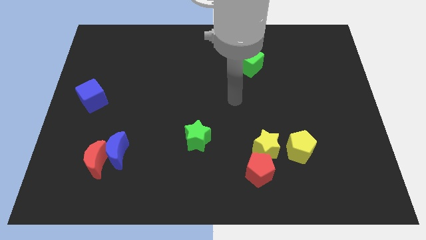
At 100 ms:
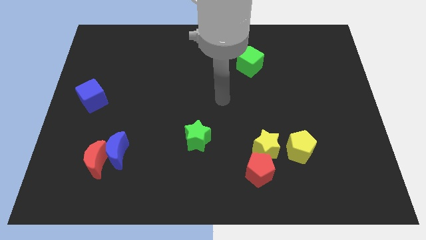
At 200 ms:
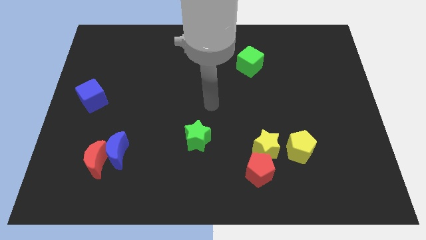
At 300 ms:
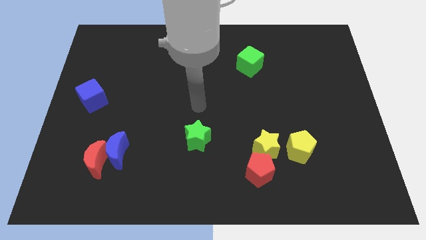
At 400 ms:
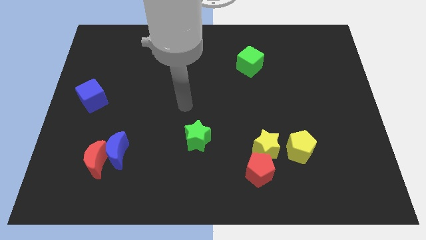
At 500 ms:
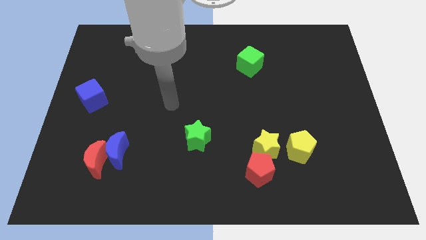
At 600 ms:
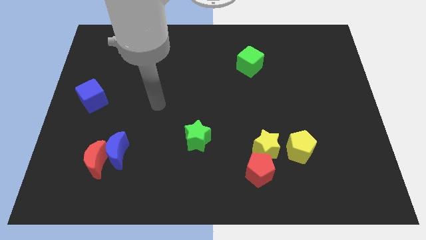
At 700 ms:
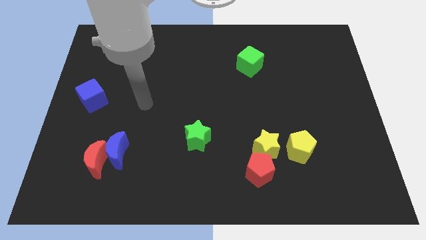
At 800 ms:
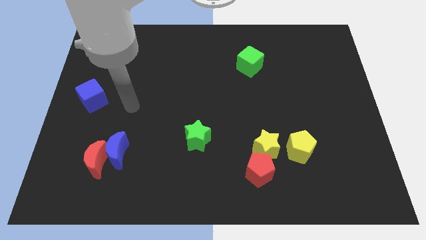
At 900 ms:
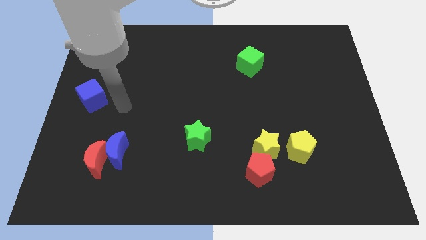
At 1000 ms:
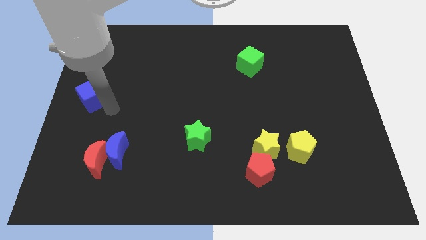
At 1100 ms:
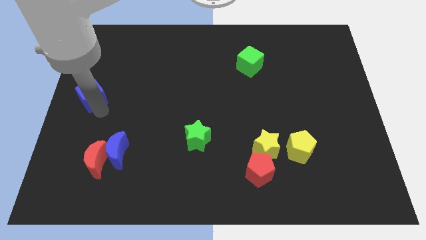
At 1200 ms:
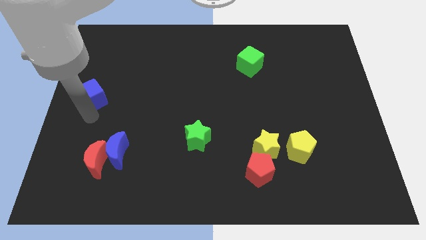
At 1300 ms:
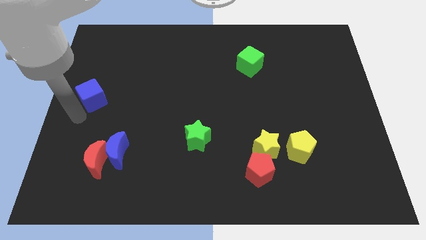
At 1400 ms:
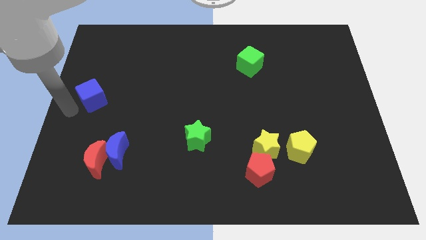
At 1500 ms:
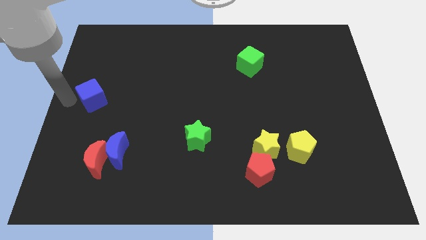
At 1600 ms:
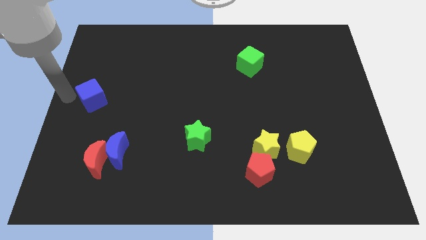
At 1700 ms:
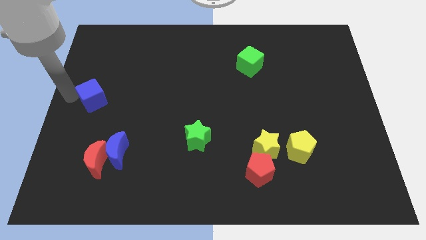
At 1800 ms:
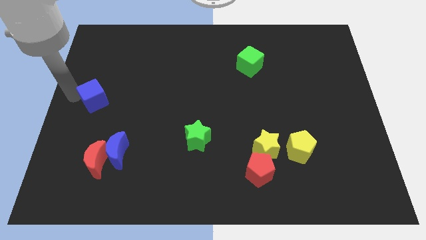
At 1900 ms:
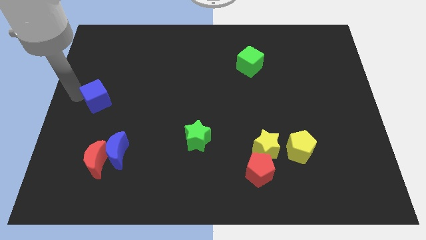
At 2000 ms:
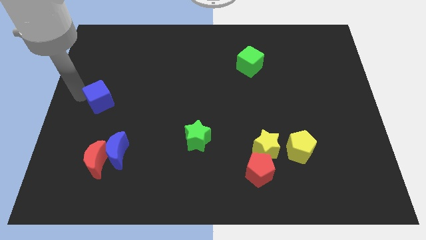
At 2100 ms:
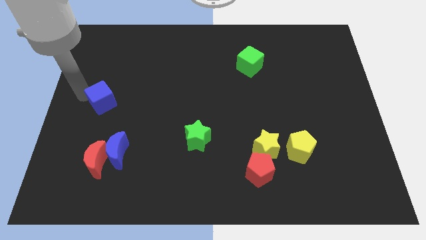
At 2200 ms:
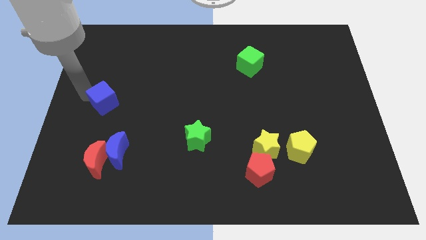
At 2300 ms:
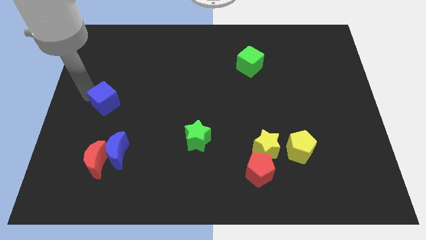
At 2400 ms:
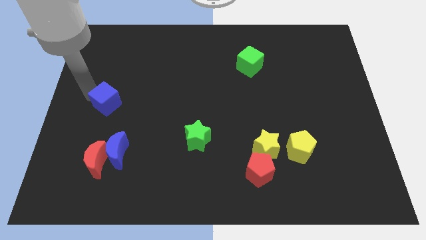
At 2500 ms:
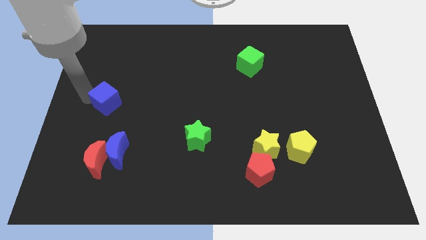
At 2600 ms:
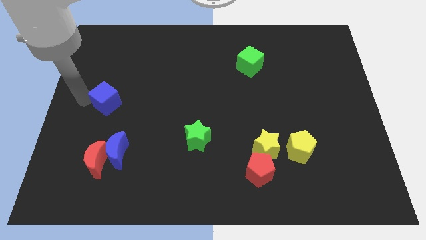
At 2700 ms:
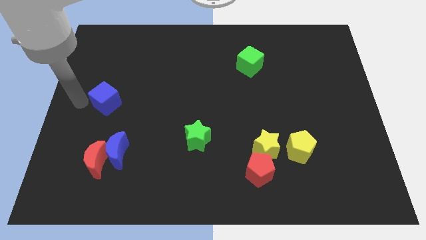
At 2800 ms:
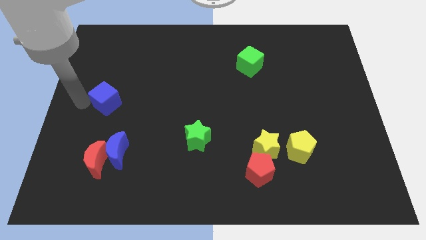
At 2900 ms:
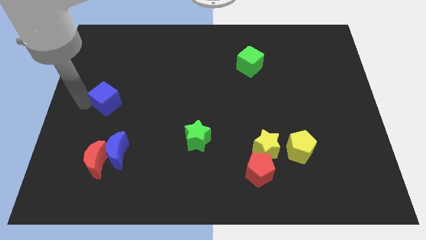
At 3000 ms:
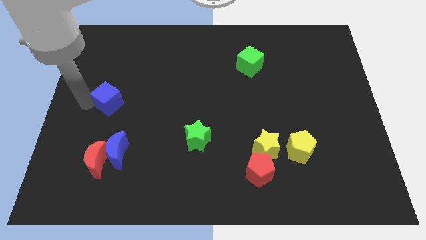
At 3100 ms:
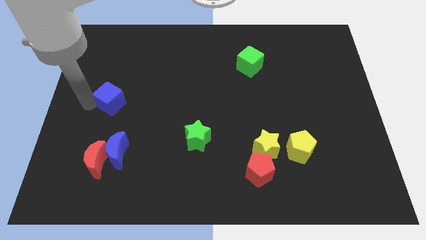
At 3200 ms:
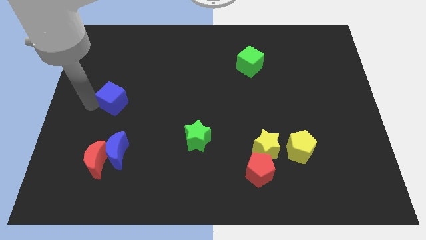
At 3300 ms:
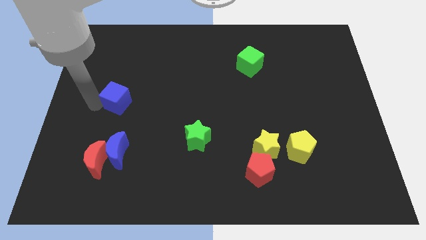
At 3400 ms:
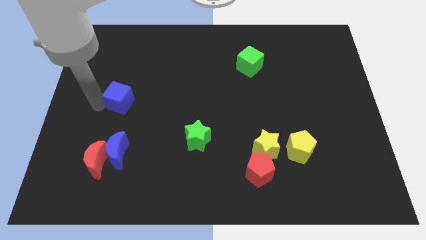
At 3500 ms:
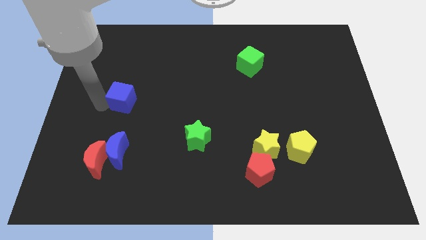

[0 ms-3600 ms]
slide the blue cube slightly to the right

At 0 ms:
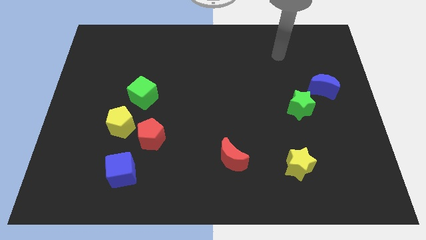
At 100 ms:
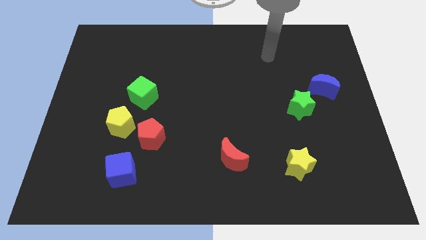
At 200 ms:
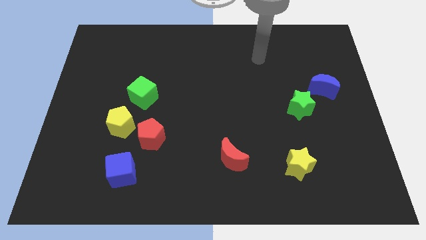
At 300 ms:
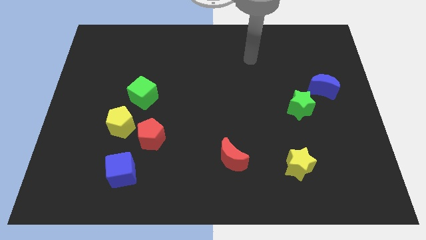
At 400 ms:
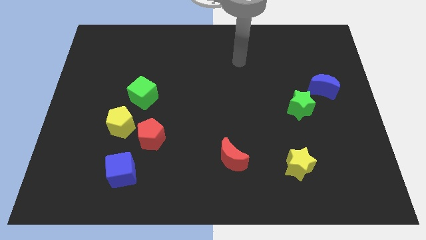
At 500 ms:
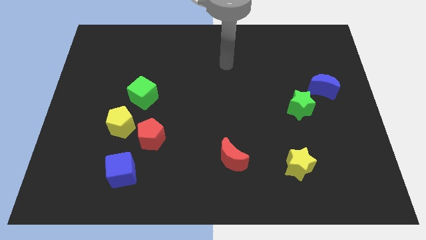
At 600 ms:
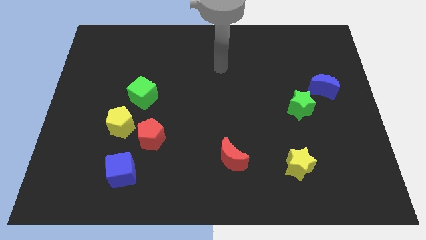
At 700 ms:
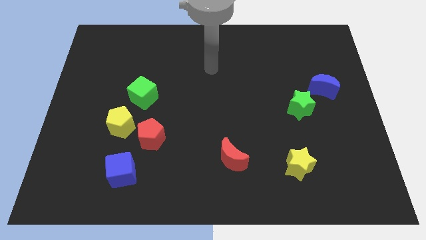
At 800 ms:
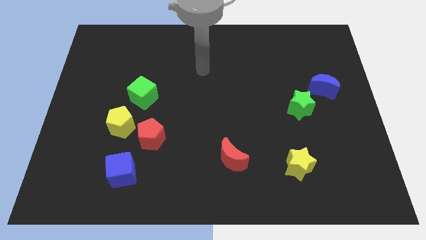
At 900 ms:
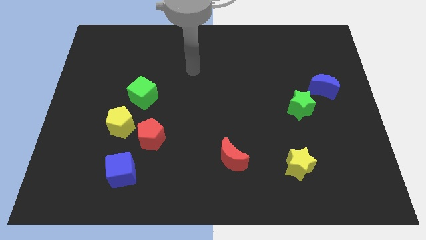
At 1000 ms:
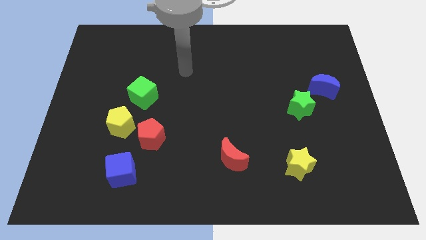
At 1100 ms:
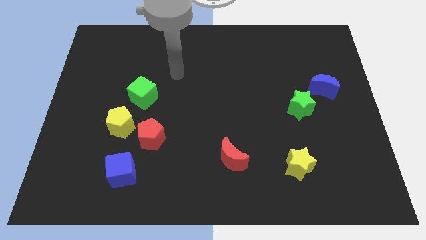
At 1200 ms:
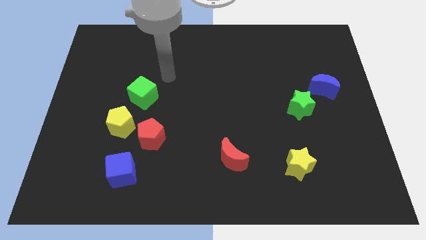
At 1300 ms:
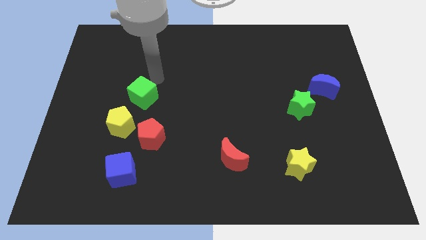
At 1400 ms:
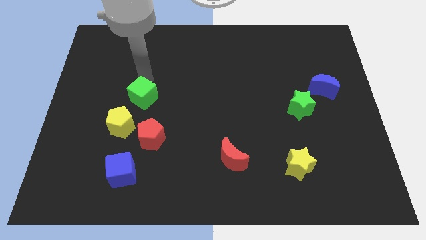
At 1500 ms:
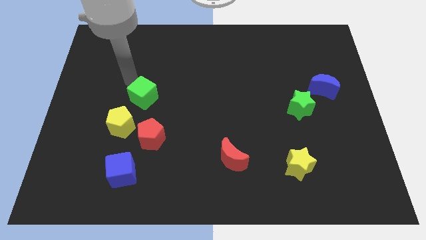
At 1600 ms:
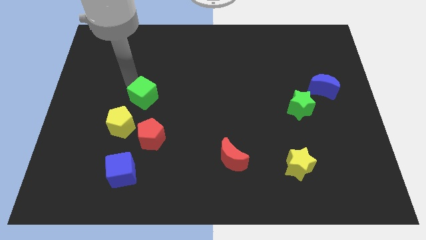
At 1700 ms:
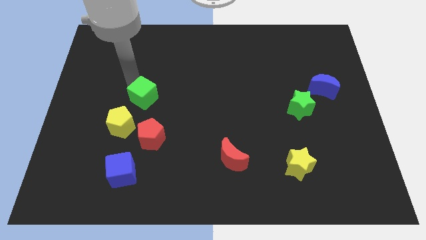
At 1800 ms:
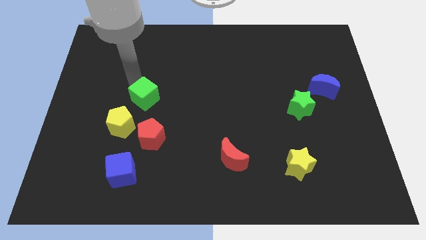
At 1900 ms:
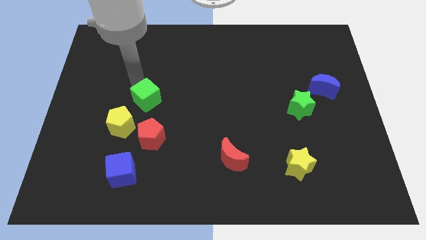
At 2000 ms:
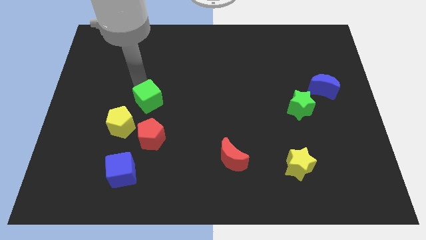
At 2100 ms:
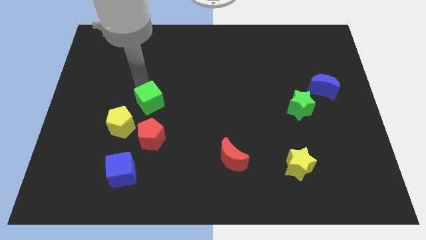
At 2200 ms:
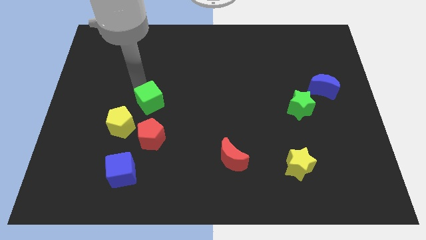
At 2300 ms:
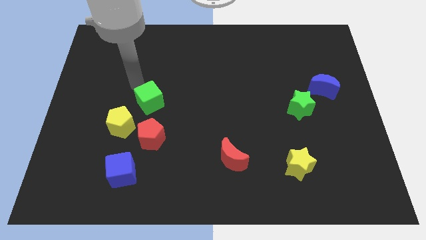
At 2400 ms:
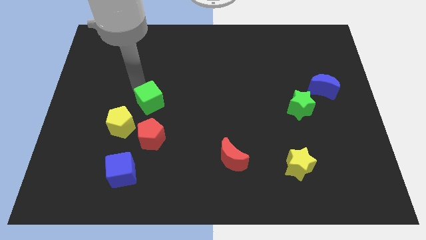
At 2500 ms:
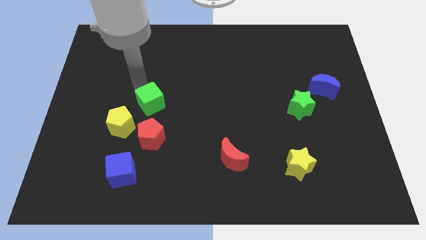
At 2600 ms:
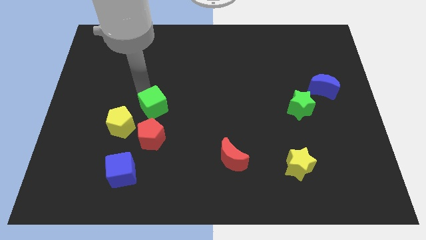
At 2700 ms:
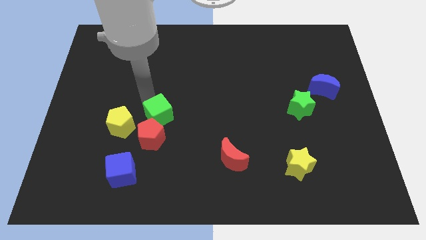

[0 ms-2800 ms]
move the green cube downwards and to the right diagonally a little bit

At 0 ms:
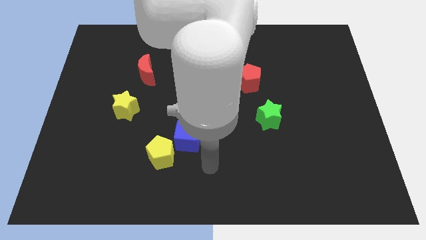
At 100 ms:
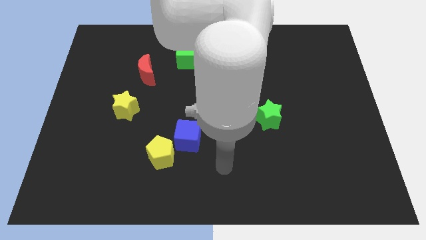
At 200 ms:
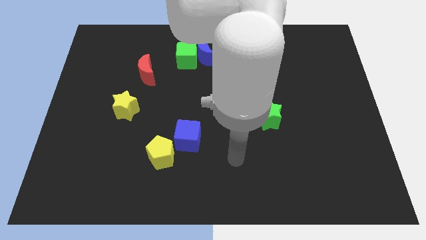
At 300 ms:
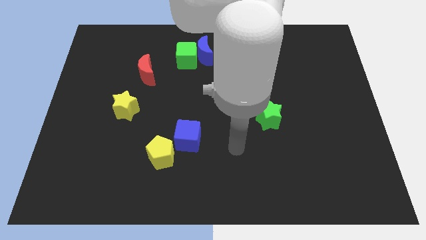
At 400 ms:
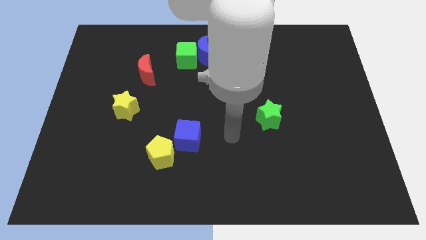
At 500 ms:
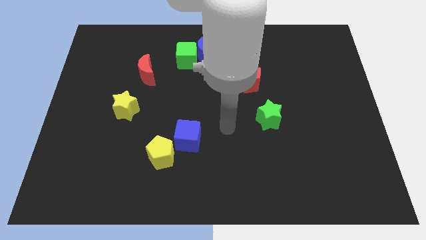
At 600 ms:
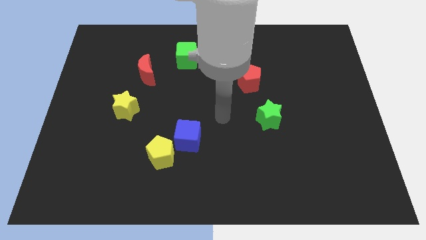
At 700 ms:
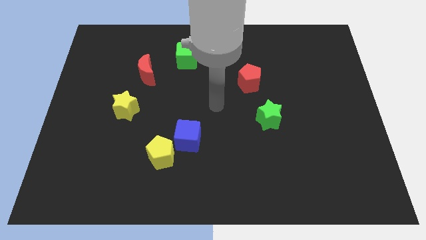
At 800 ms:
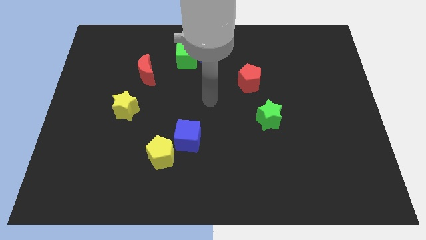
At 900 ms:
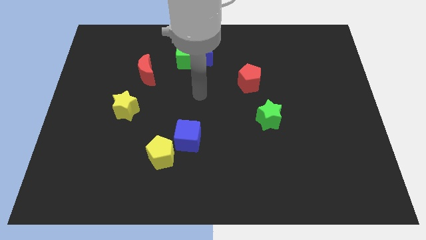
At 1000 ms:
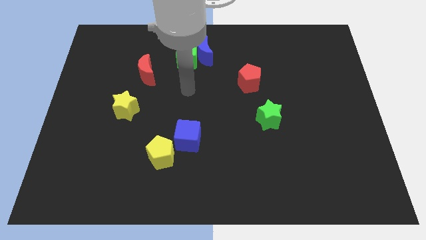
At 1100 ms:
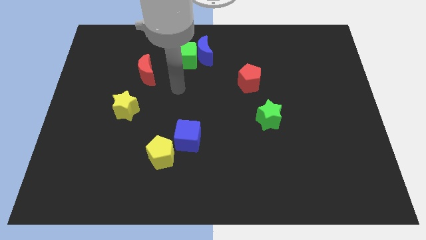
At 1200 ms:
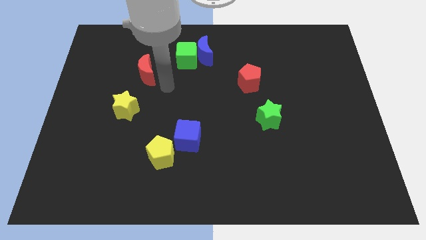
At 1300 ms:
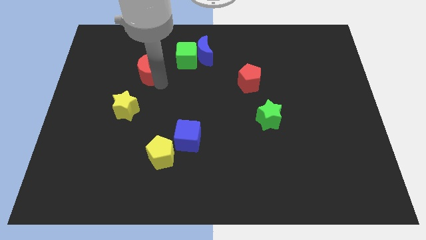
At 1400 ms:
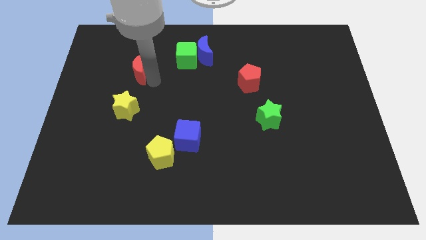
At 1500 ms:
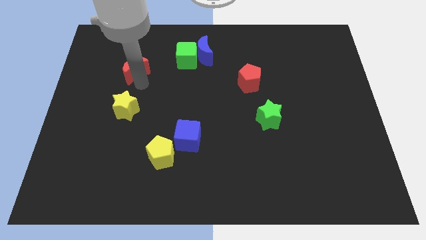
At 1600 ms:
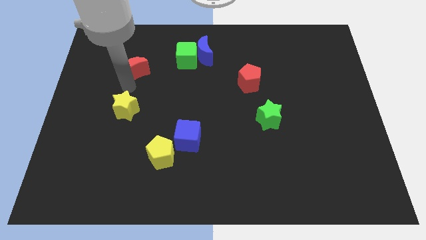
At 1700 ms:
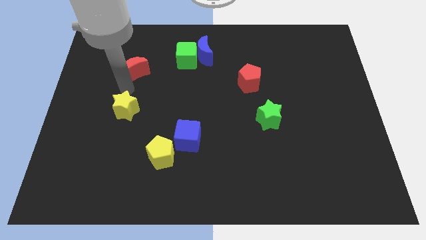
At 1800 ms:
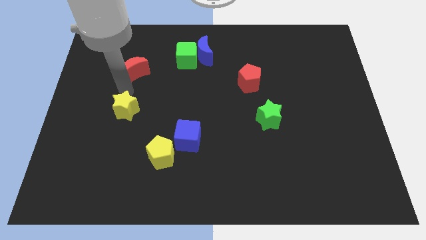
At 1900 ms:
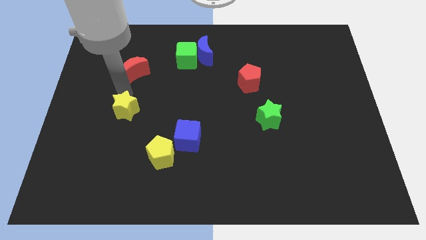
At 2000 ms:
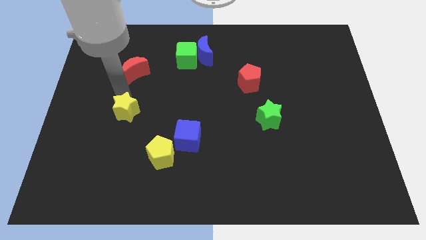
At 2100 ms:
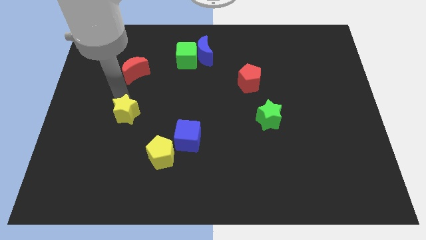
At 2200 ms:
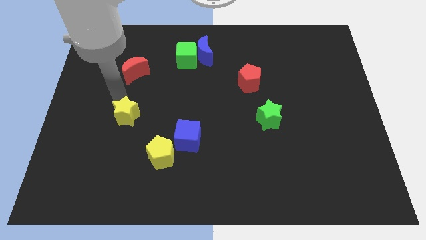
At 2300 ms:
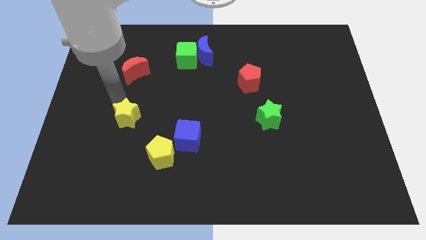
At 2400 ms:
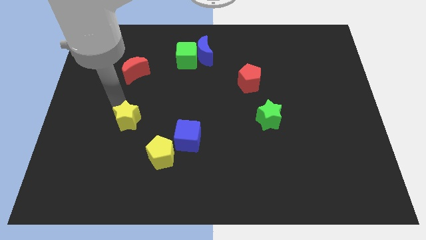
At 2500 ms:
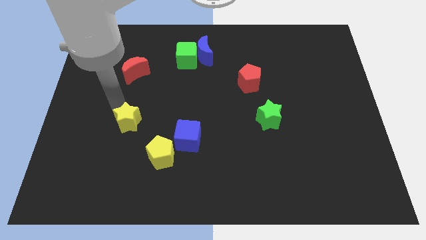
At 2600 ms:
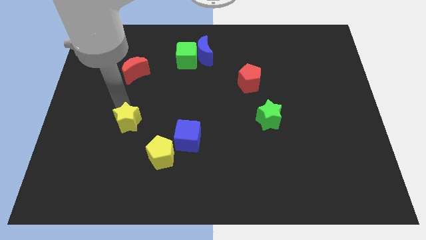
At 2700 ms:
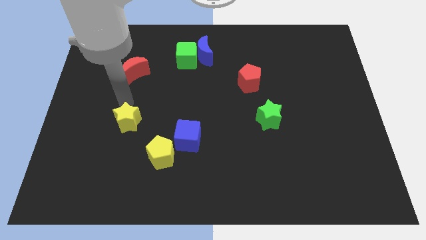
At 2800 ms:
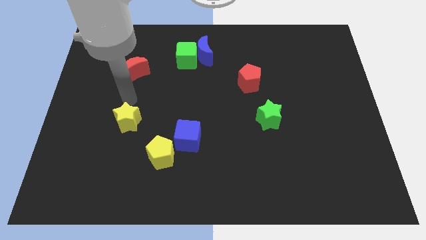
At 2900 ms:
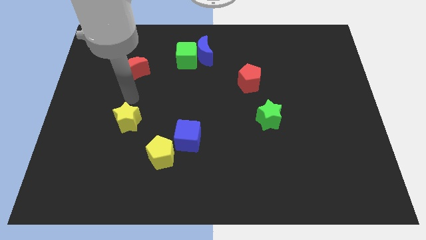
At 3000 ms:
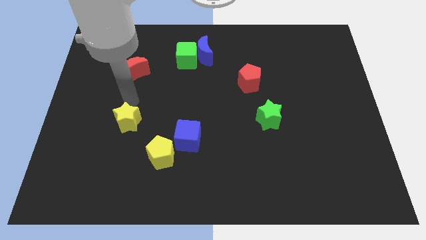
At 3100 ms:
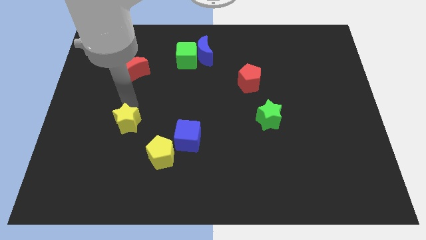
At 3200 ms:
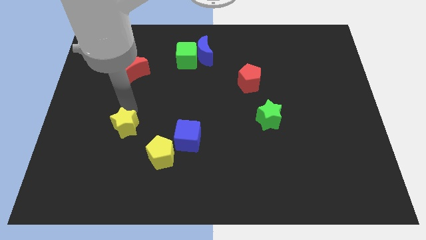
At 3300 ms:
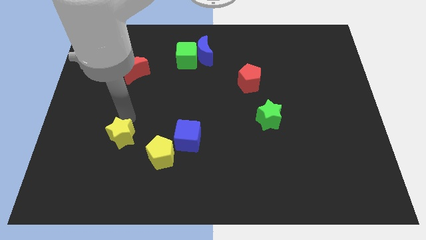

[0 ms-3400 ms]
push the yellow star somewhat downwards
